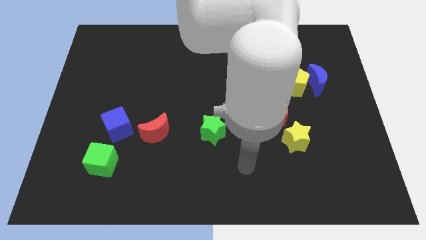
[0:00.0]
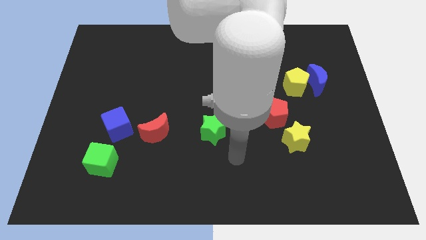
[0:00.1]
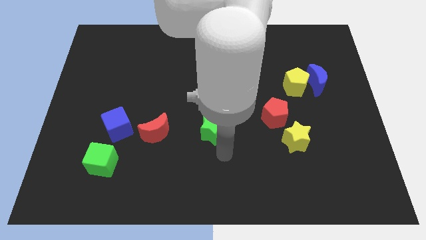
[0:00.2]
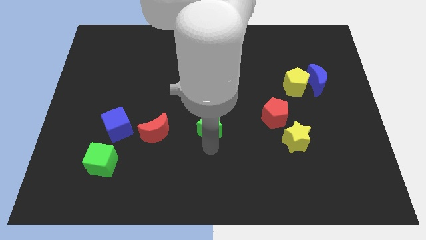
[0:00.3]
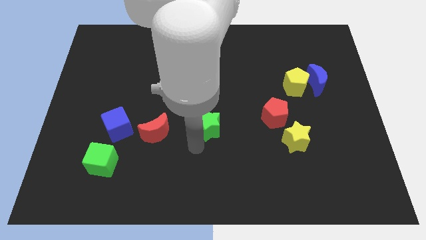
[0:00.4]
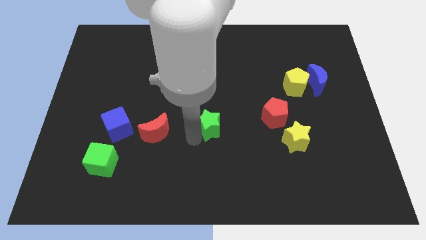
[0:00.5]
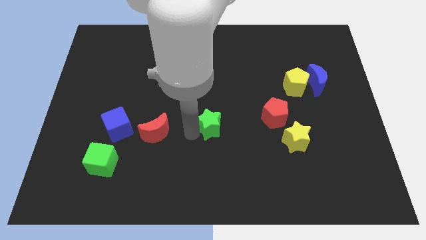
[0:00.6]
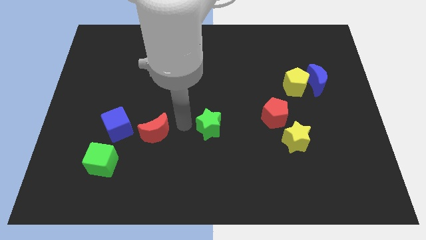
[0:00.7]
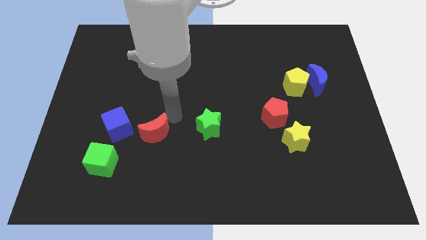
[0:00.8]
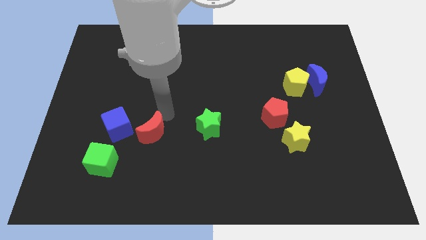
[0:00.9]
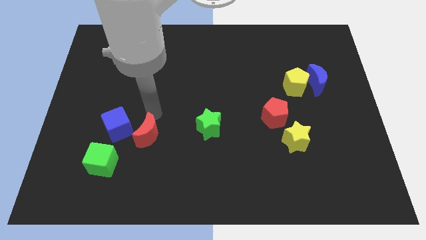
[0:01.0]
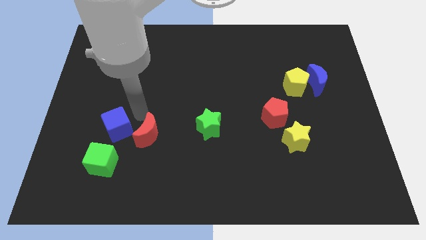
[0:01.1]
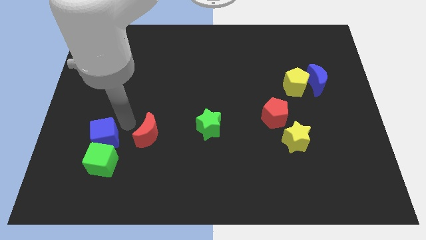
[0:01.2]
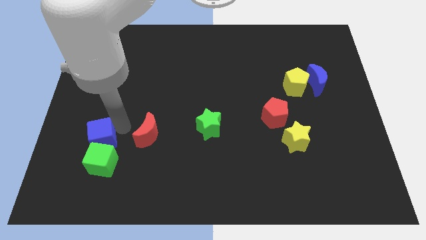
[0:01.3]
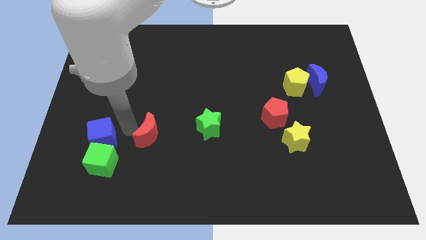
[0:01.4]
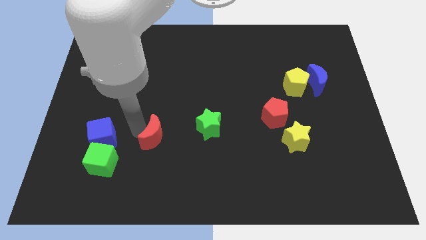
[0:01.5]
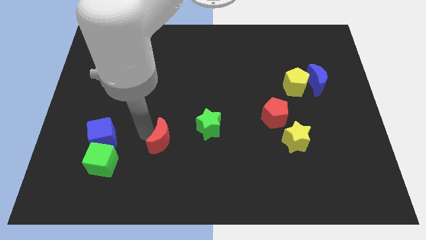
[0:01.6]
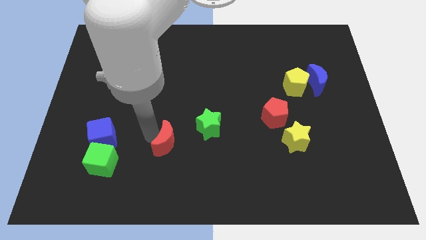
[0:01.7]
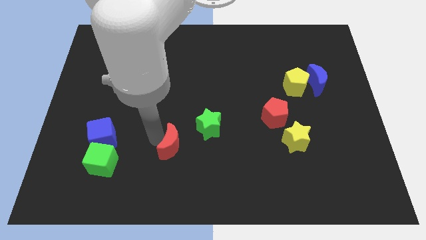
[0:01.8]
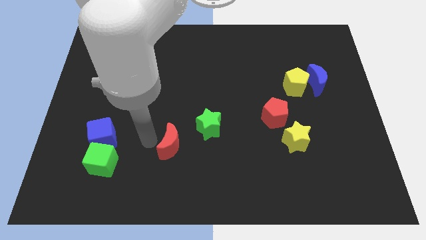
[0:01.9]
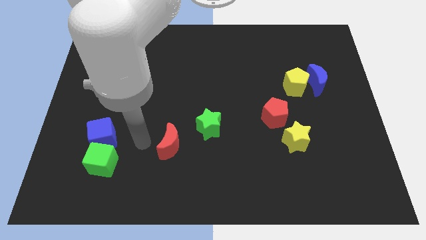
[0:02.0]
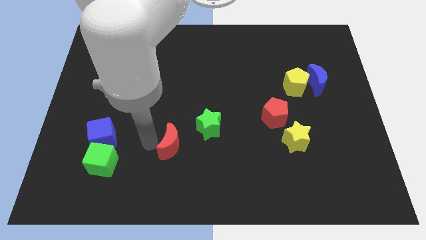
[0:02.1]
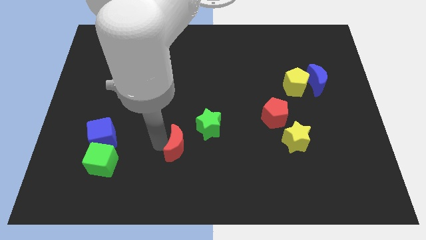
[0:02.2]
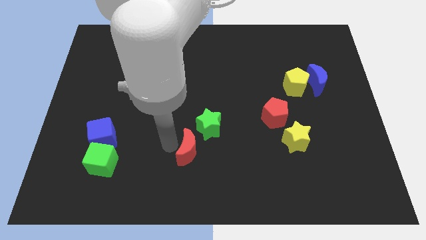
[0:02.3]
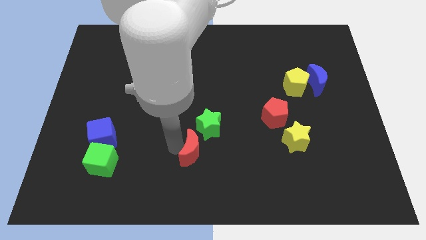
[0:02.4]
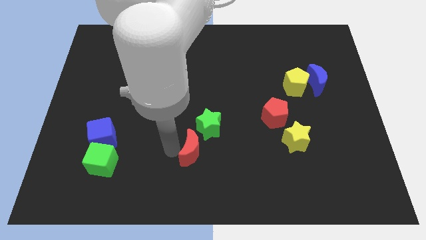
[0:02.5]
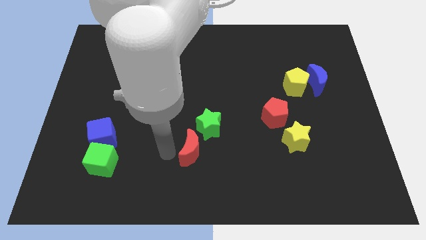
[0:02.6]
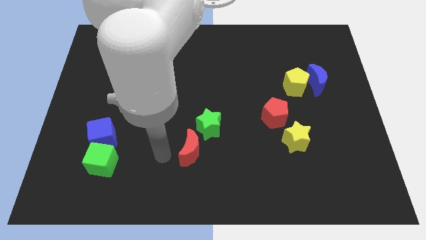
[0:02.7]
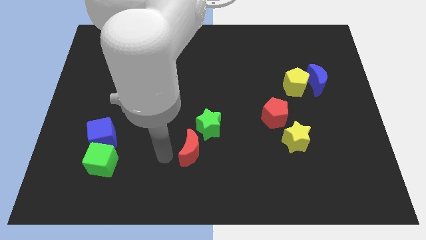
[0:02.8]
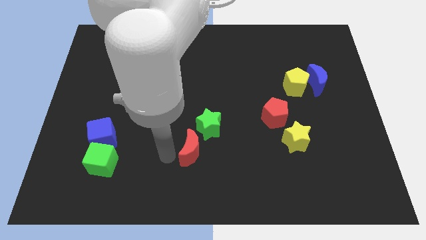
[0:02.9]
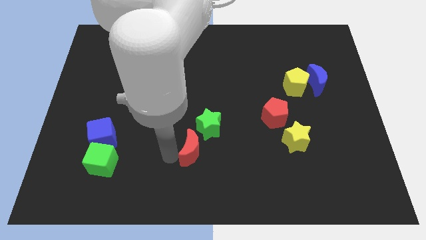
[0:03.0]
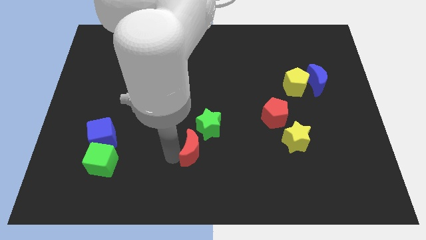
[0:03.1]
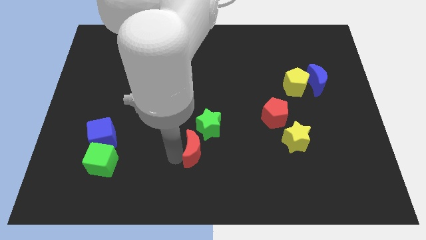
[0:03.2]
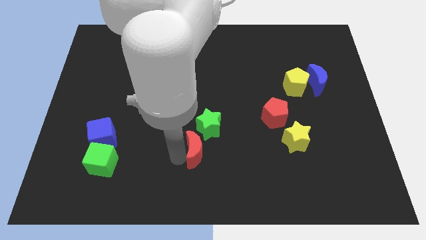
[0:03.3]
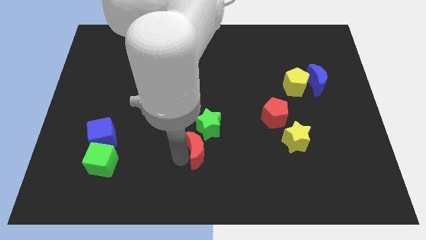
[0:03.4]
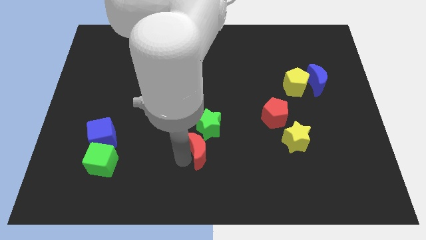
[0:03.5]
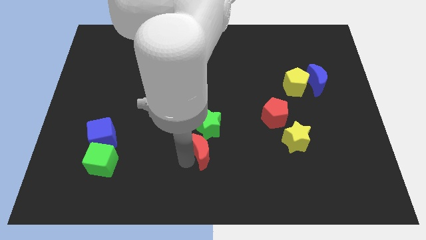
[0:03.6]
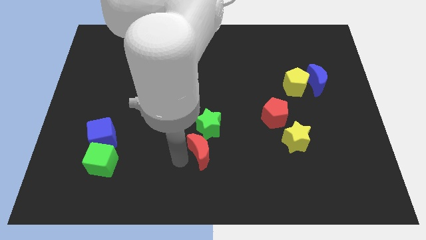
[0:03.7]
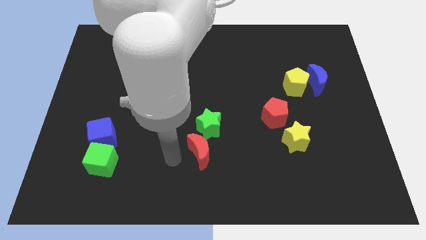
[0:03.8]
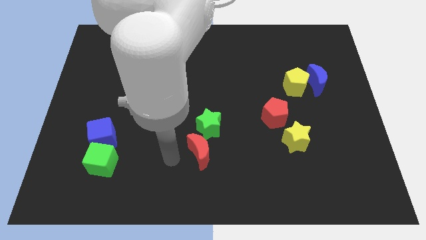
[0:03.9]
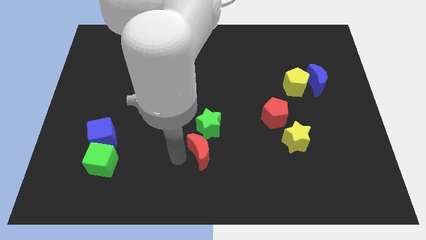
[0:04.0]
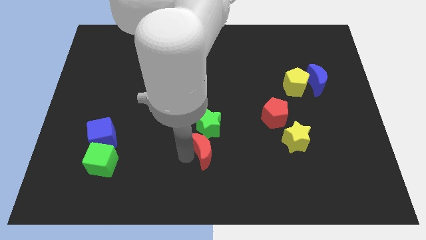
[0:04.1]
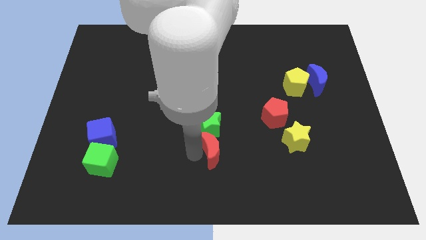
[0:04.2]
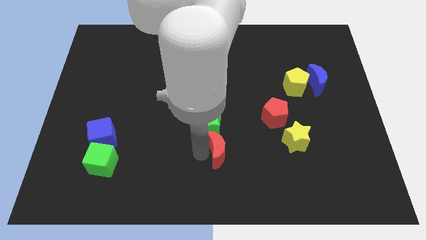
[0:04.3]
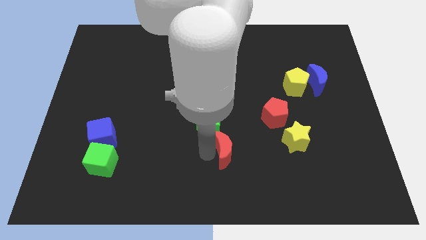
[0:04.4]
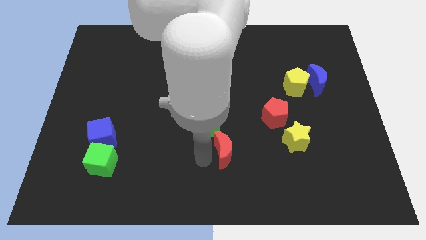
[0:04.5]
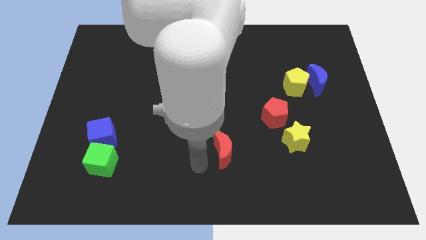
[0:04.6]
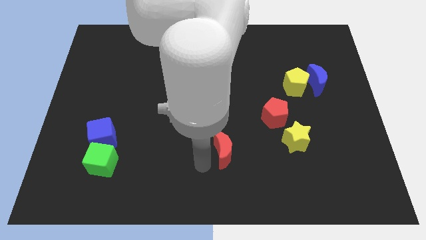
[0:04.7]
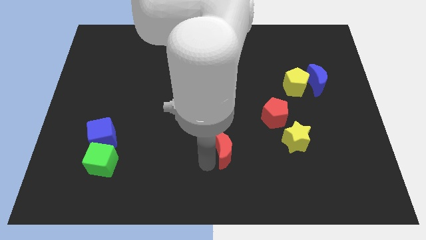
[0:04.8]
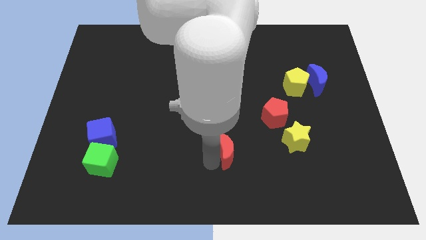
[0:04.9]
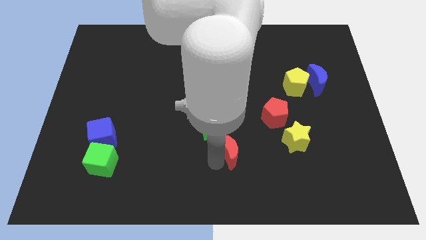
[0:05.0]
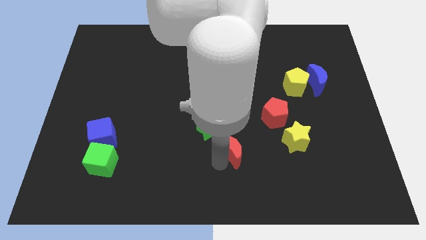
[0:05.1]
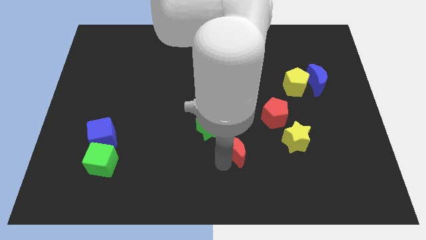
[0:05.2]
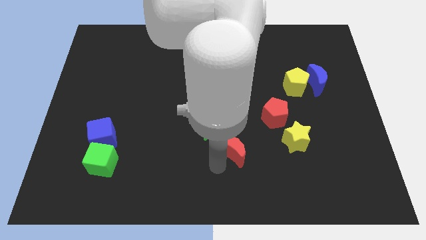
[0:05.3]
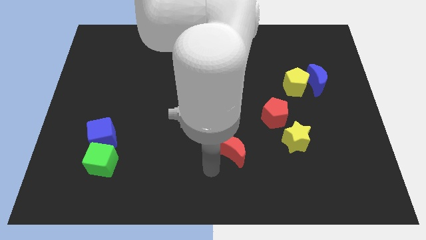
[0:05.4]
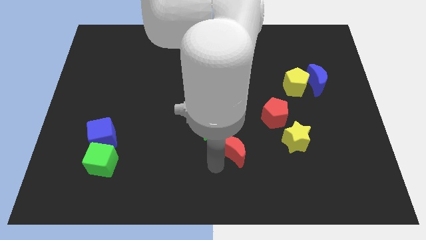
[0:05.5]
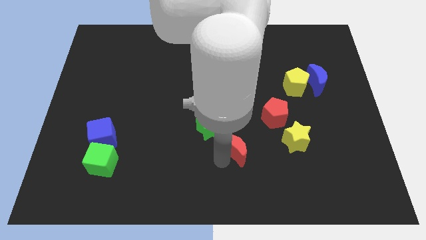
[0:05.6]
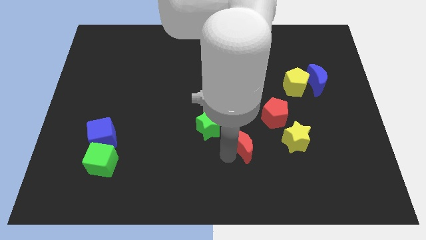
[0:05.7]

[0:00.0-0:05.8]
slide the red moon to the bottom left side of the red pentagon
